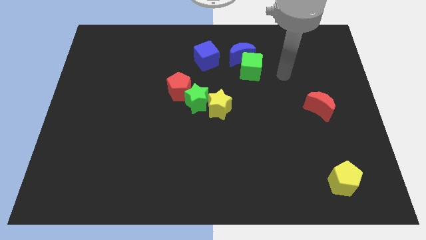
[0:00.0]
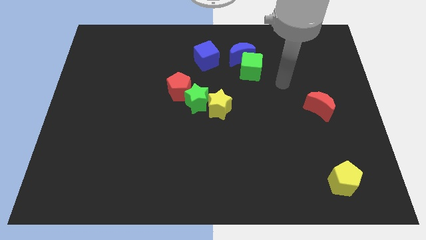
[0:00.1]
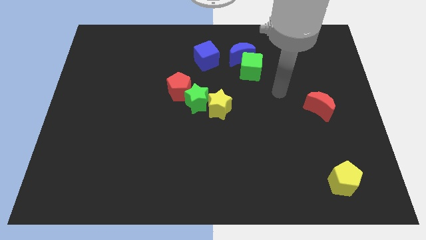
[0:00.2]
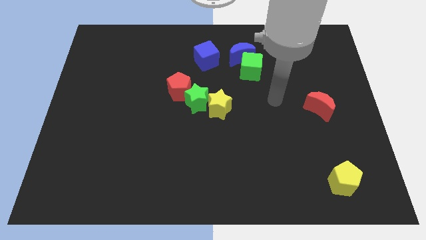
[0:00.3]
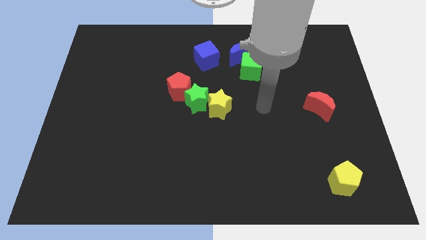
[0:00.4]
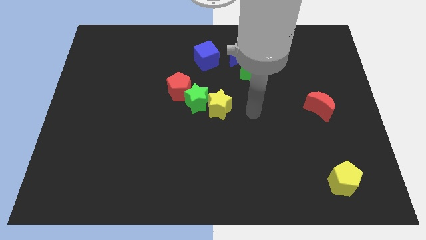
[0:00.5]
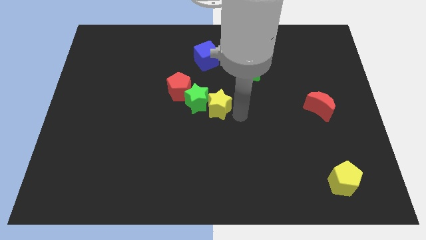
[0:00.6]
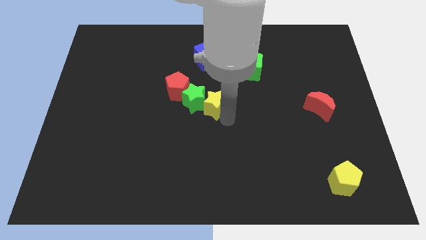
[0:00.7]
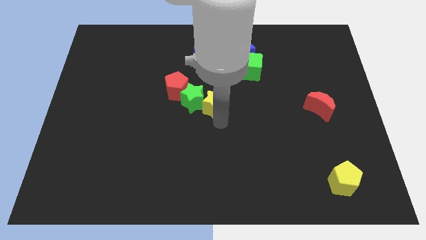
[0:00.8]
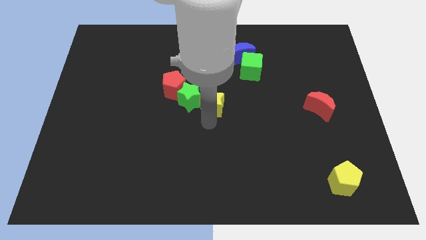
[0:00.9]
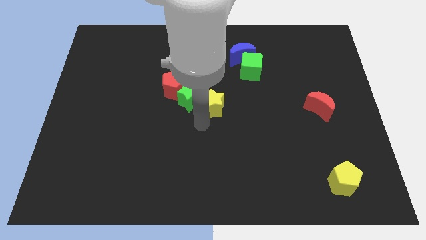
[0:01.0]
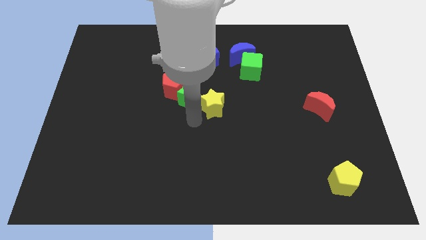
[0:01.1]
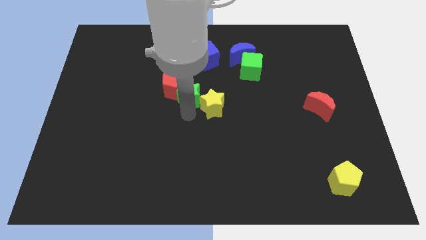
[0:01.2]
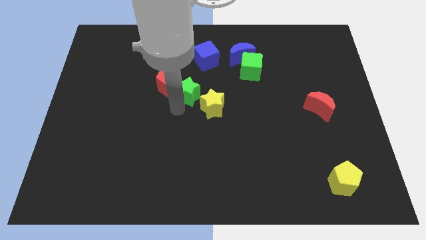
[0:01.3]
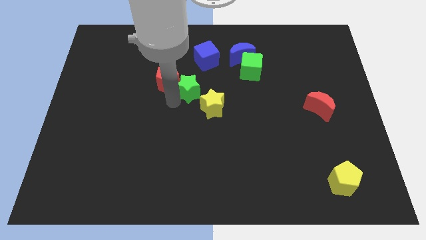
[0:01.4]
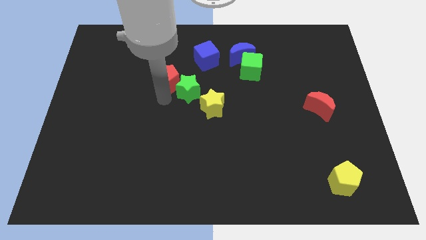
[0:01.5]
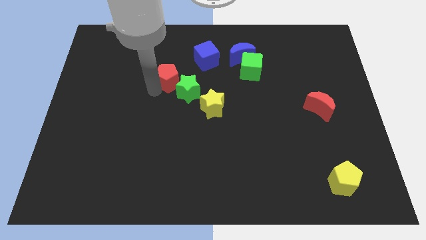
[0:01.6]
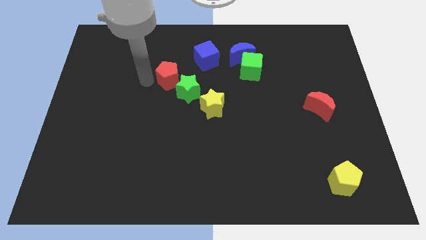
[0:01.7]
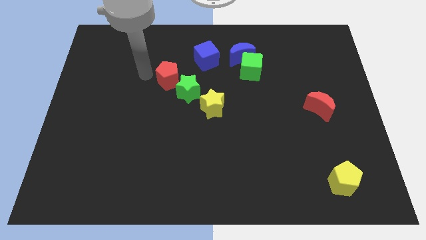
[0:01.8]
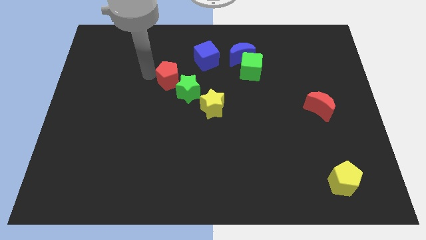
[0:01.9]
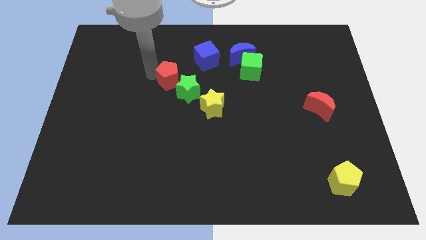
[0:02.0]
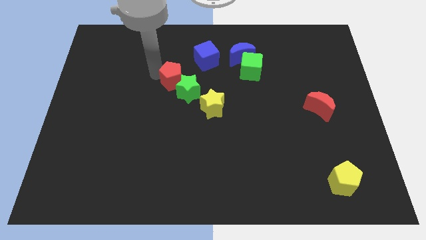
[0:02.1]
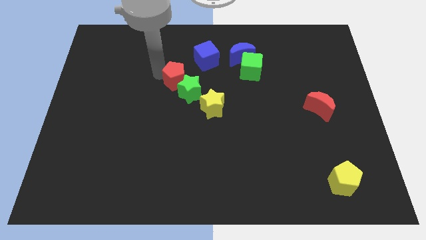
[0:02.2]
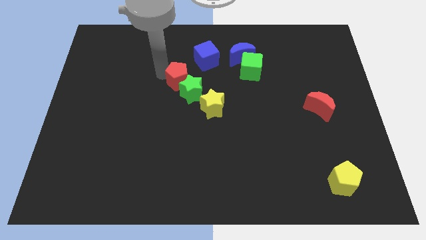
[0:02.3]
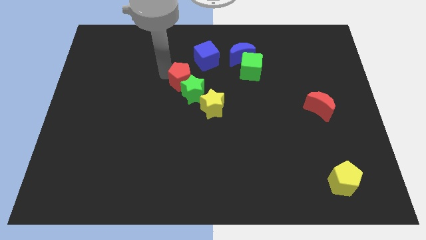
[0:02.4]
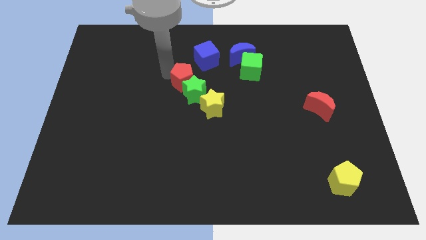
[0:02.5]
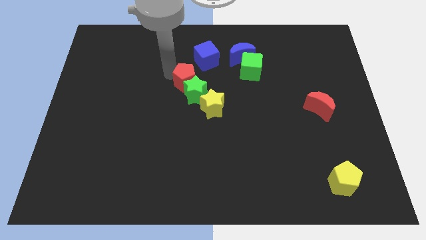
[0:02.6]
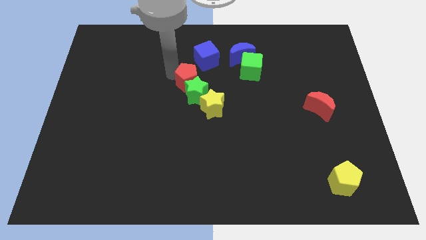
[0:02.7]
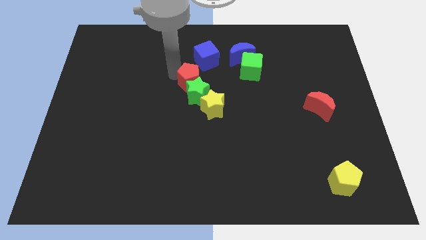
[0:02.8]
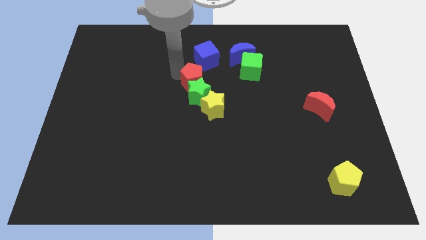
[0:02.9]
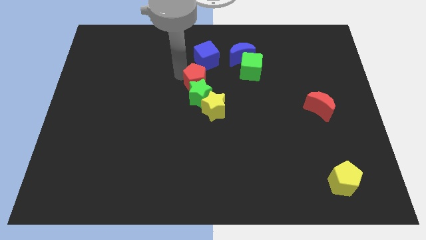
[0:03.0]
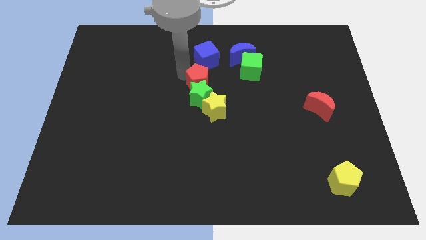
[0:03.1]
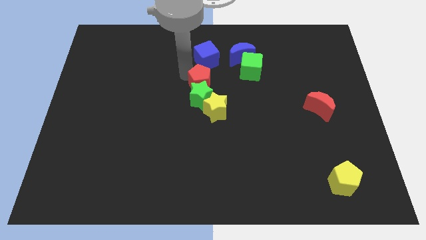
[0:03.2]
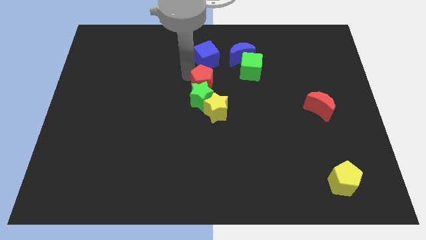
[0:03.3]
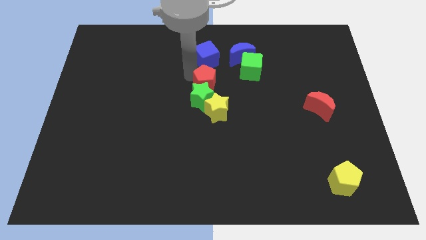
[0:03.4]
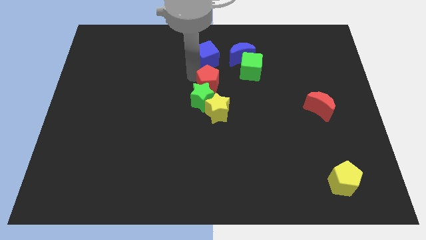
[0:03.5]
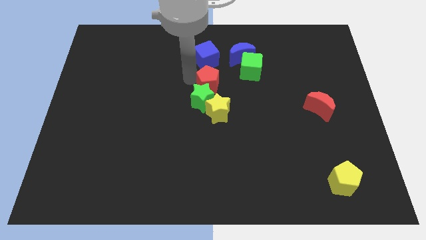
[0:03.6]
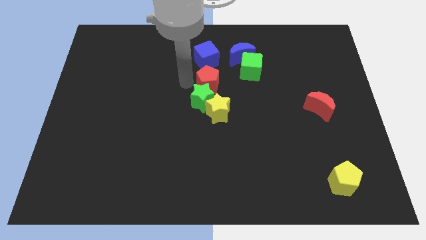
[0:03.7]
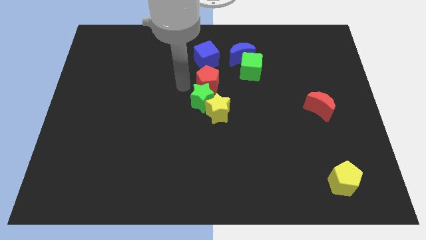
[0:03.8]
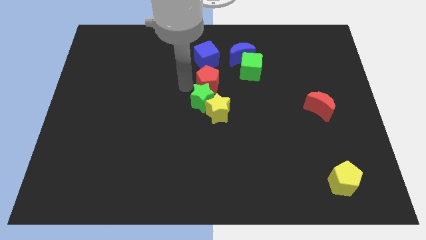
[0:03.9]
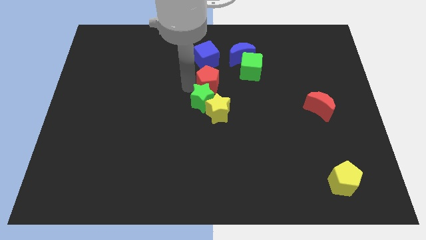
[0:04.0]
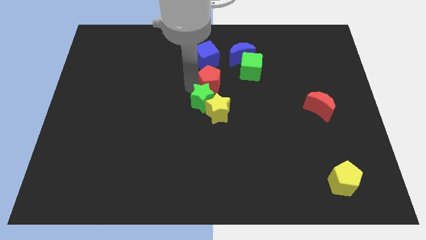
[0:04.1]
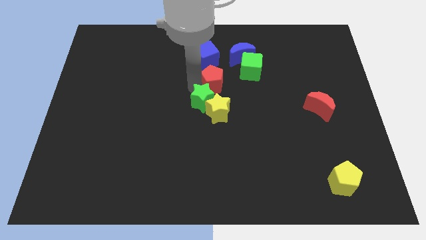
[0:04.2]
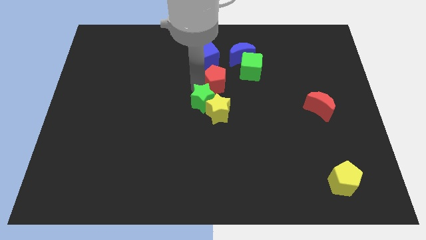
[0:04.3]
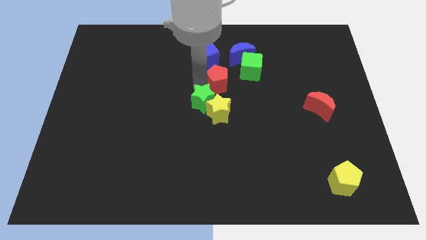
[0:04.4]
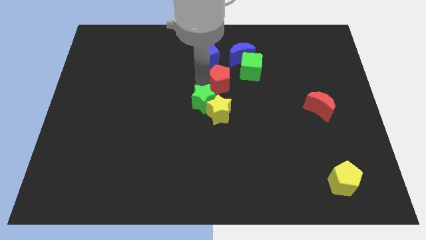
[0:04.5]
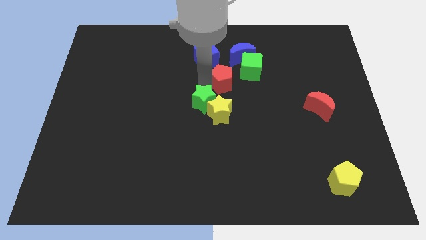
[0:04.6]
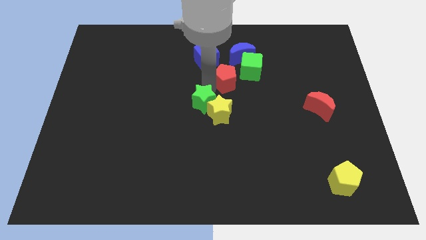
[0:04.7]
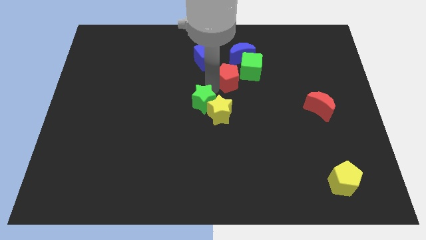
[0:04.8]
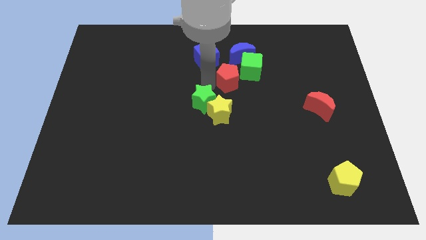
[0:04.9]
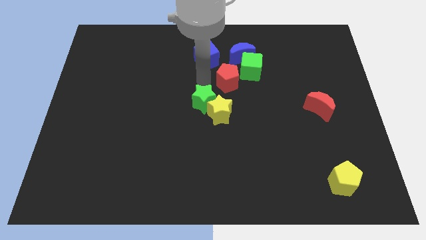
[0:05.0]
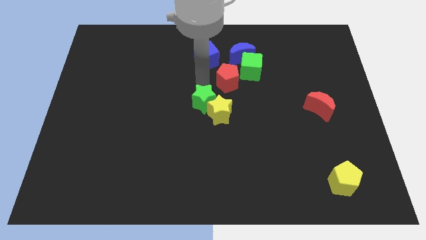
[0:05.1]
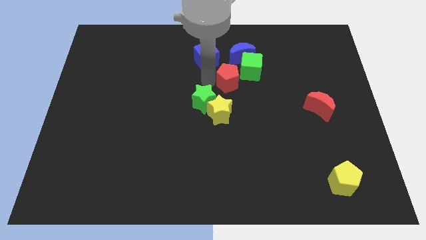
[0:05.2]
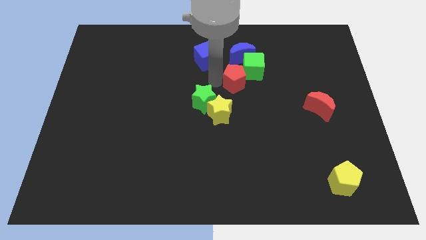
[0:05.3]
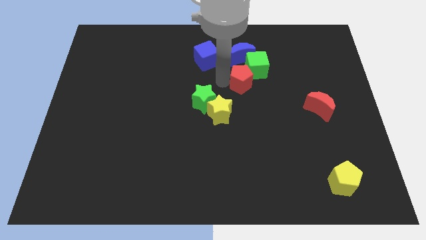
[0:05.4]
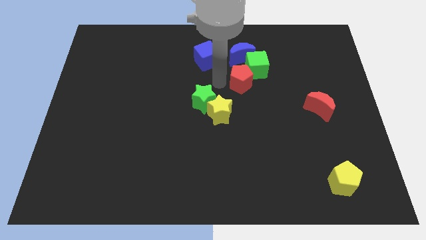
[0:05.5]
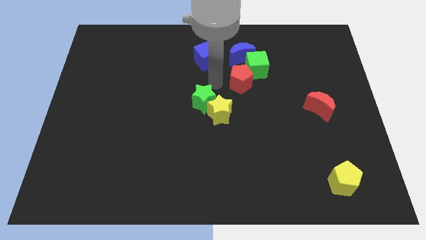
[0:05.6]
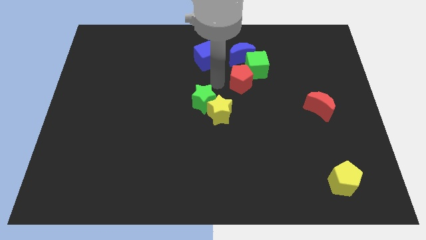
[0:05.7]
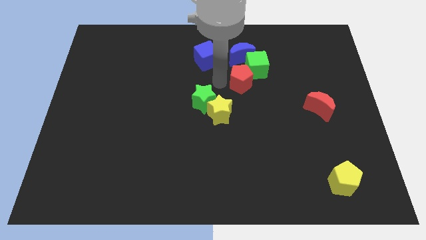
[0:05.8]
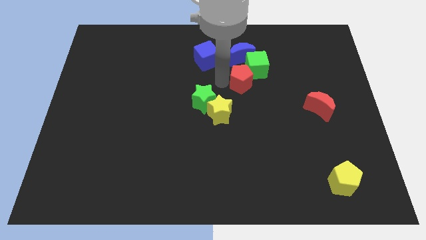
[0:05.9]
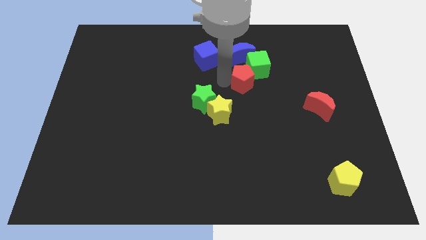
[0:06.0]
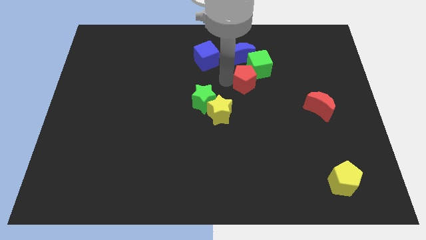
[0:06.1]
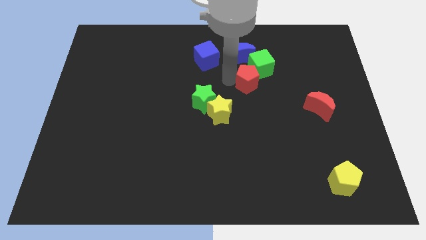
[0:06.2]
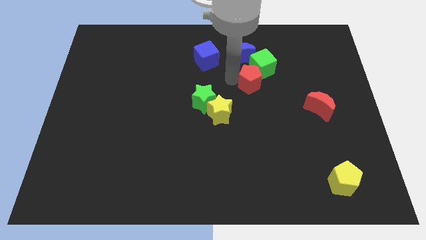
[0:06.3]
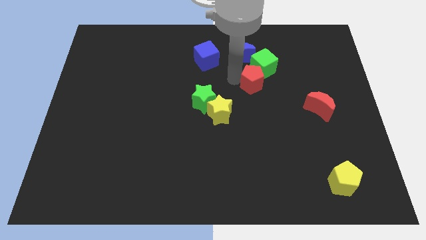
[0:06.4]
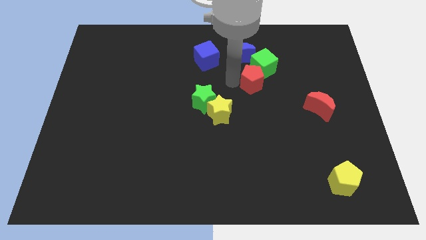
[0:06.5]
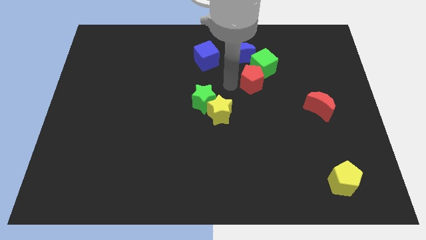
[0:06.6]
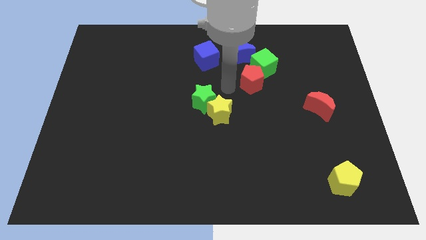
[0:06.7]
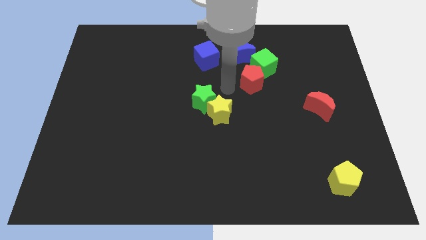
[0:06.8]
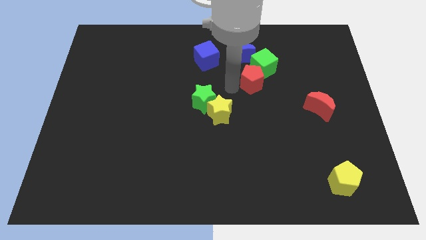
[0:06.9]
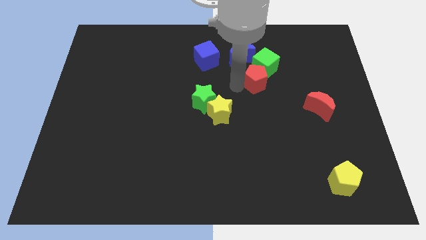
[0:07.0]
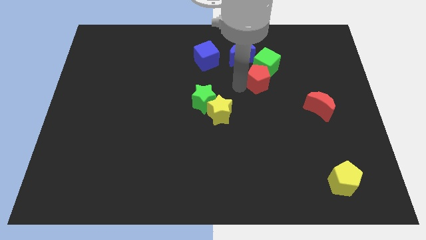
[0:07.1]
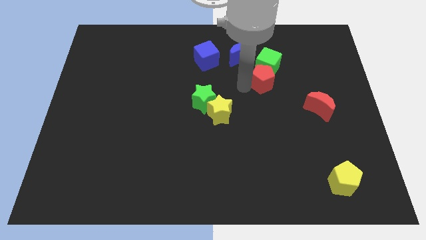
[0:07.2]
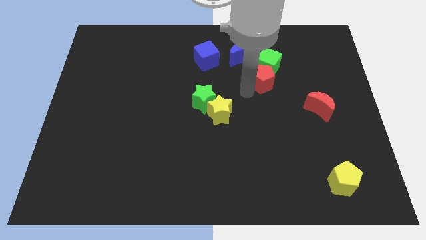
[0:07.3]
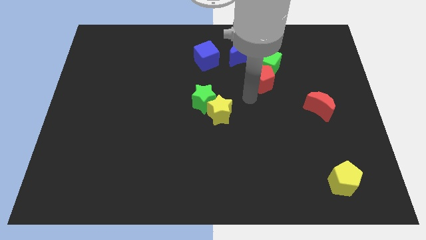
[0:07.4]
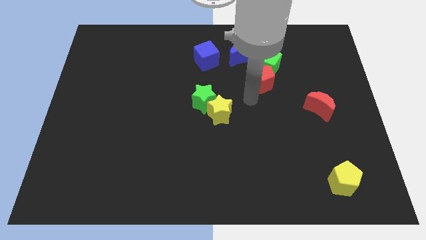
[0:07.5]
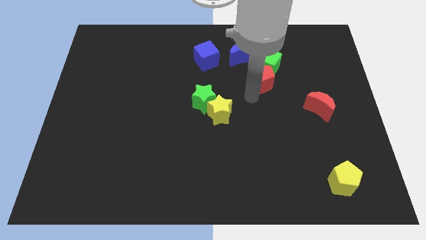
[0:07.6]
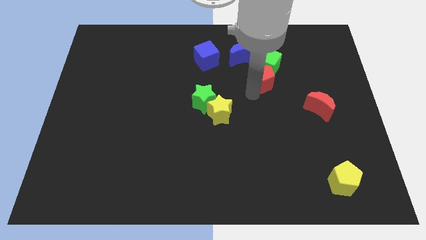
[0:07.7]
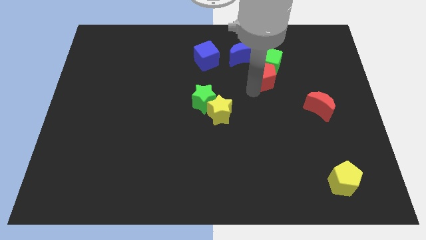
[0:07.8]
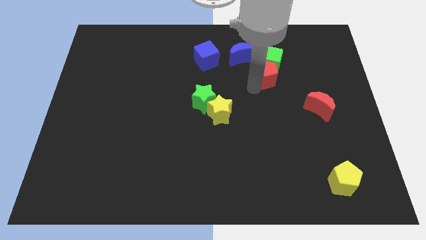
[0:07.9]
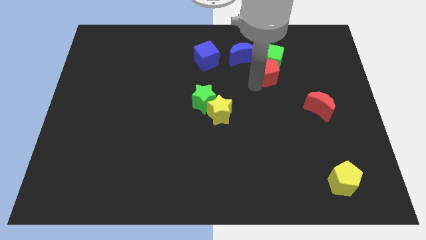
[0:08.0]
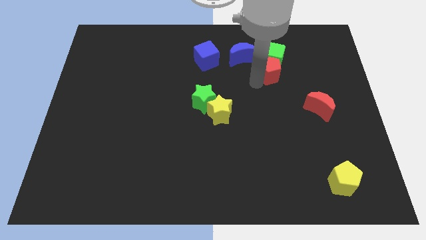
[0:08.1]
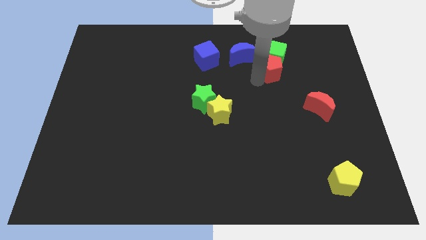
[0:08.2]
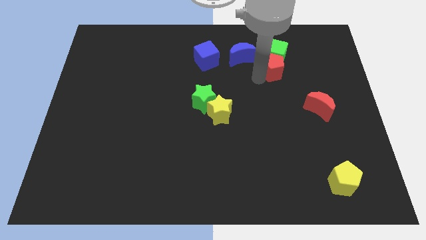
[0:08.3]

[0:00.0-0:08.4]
put the red pentagon right of the blue moon
